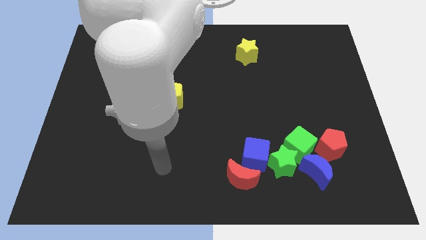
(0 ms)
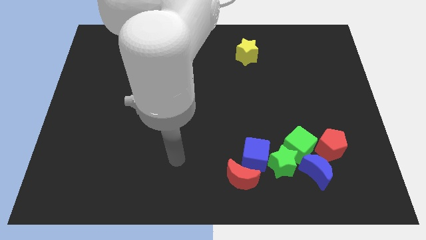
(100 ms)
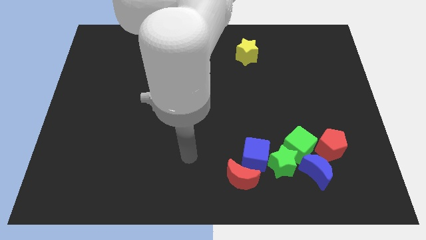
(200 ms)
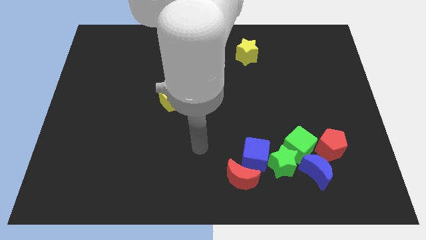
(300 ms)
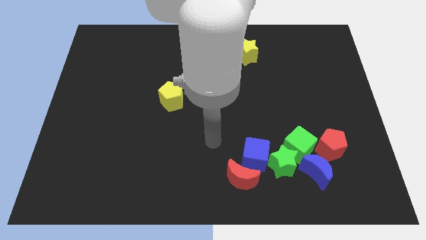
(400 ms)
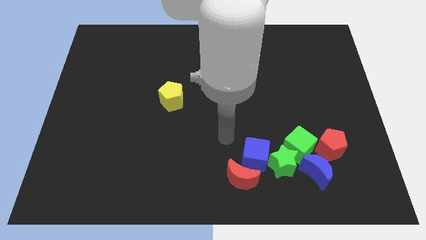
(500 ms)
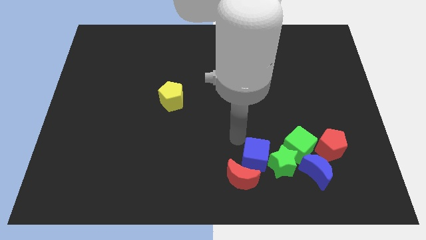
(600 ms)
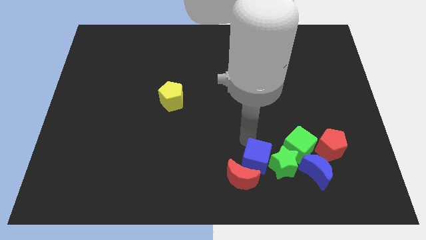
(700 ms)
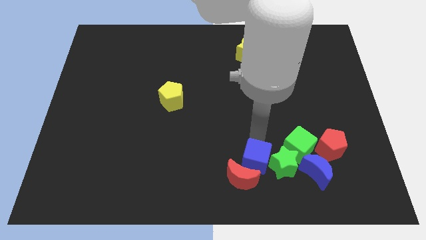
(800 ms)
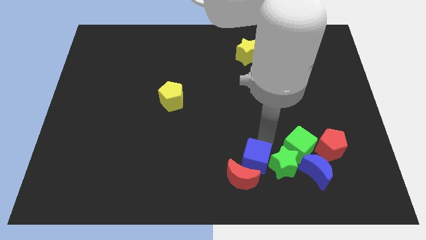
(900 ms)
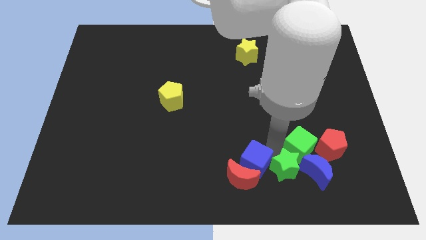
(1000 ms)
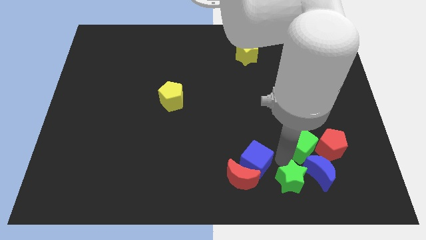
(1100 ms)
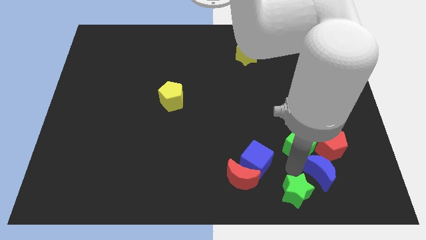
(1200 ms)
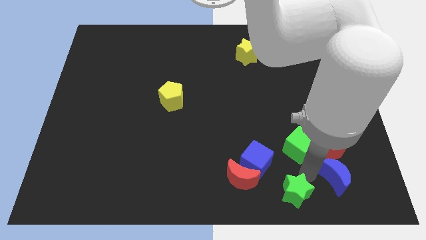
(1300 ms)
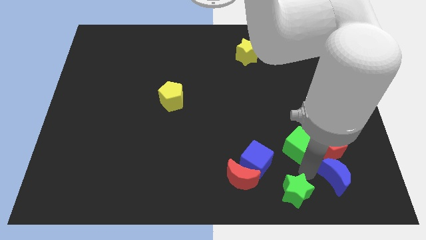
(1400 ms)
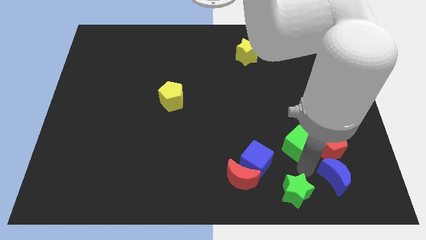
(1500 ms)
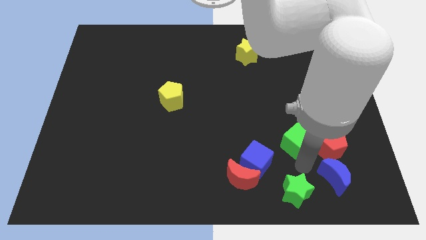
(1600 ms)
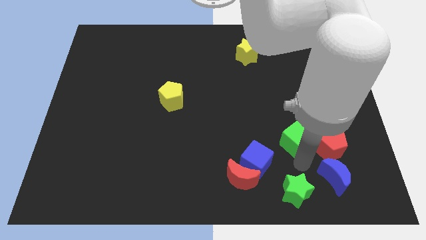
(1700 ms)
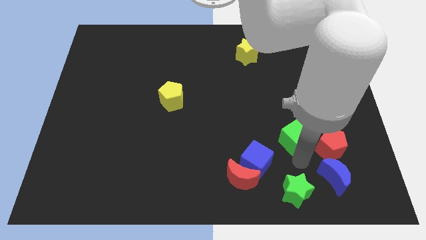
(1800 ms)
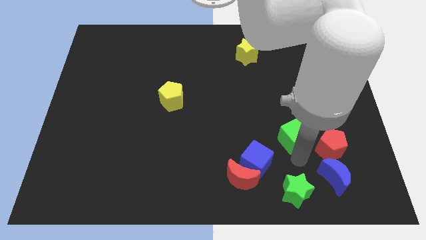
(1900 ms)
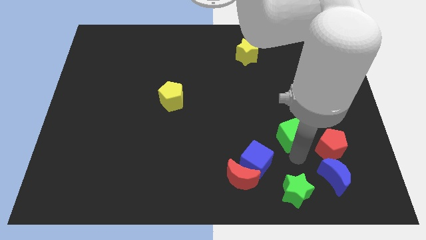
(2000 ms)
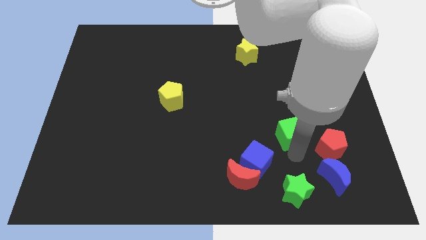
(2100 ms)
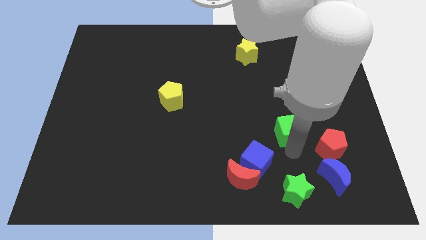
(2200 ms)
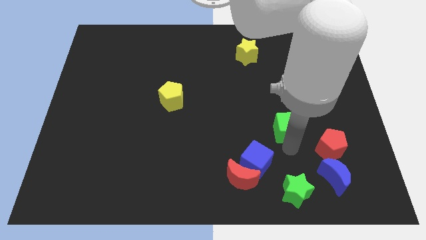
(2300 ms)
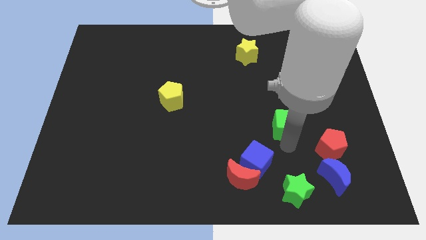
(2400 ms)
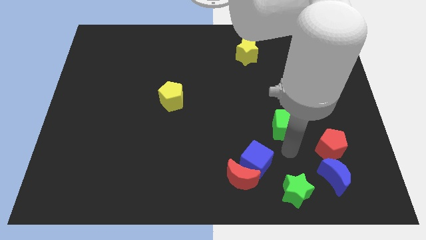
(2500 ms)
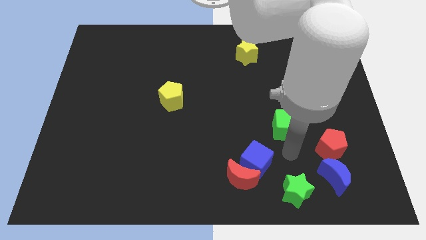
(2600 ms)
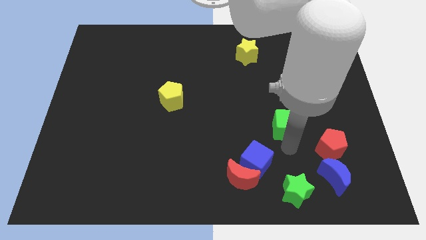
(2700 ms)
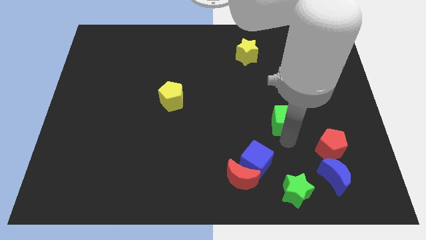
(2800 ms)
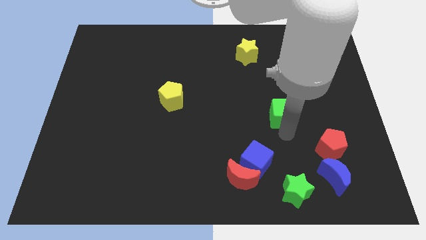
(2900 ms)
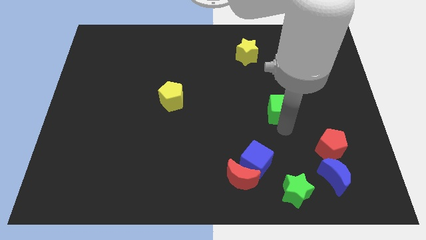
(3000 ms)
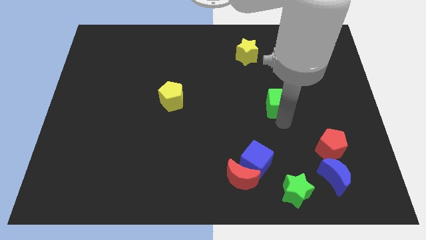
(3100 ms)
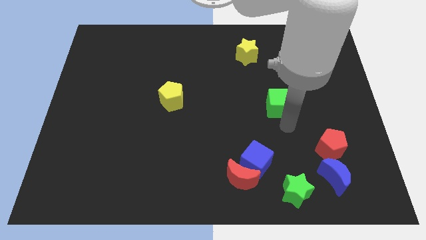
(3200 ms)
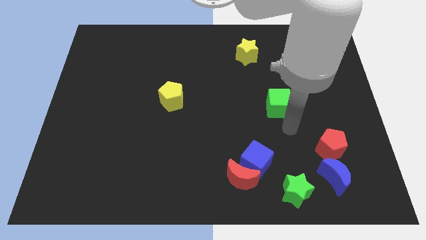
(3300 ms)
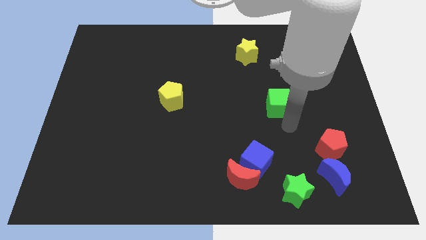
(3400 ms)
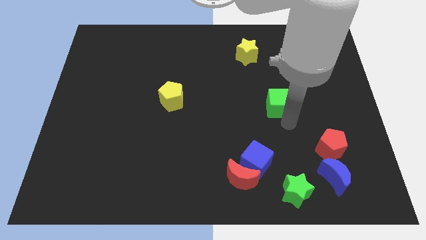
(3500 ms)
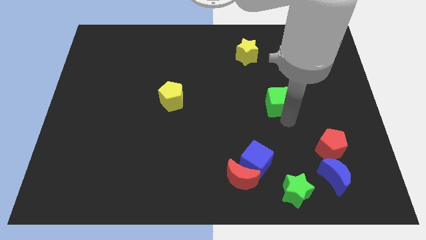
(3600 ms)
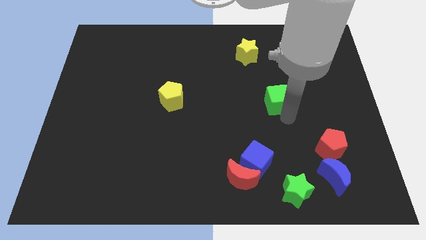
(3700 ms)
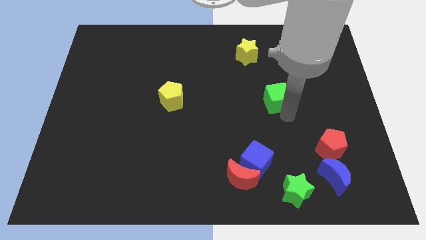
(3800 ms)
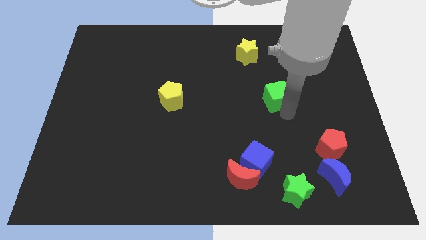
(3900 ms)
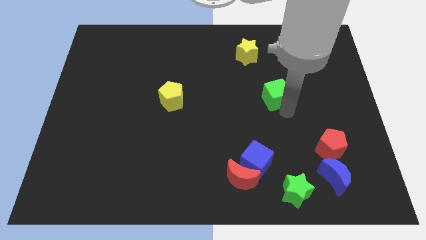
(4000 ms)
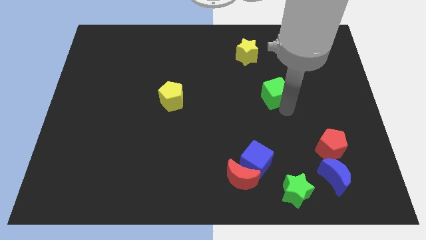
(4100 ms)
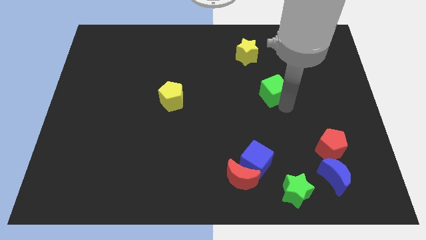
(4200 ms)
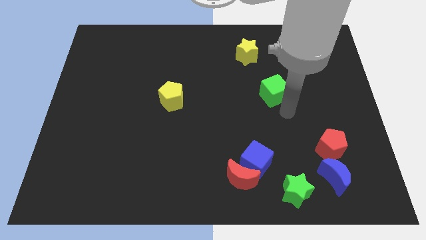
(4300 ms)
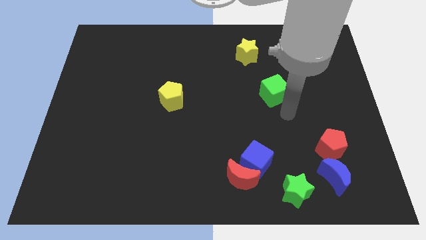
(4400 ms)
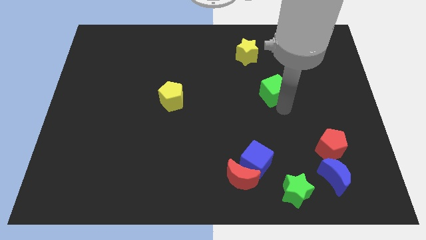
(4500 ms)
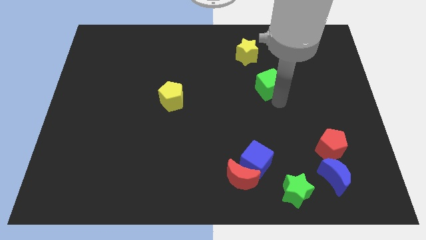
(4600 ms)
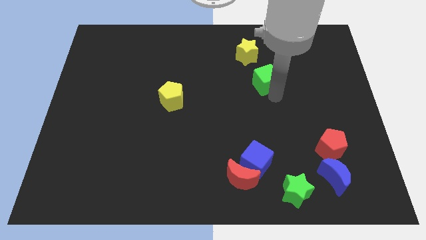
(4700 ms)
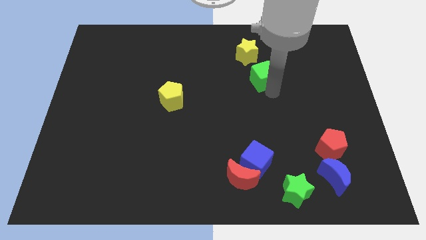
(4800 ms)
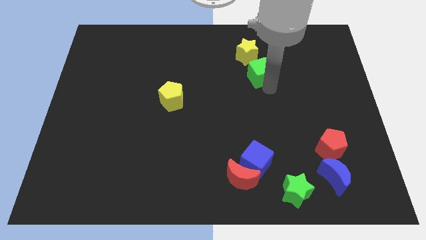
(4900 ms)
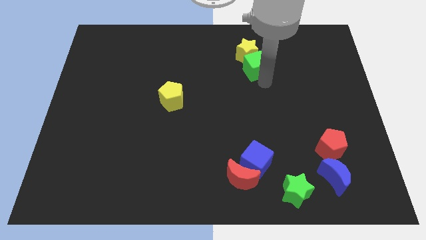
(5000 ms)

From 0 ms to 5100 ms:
move the green cube towards the yellow star

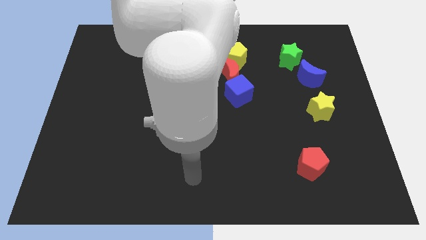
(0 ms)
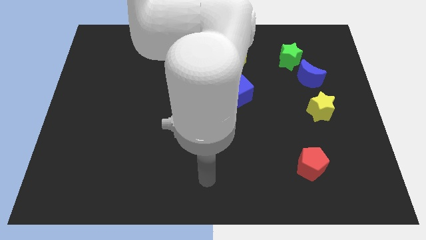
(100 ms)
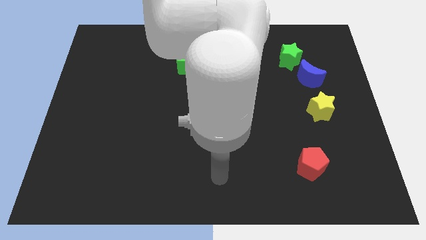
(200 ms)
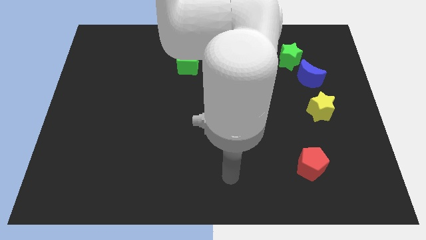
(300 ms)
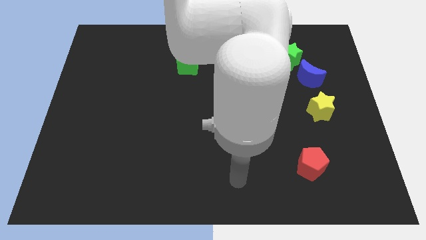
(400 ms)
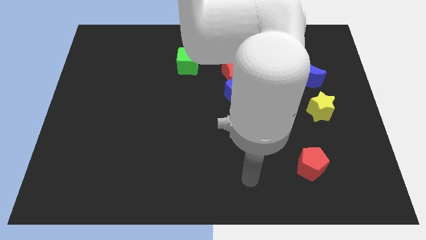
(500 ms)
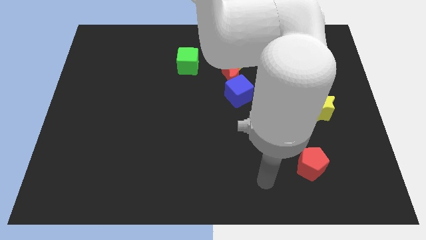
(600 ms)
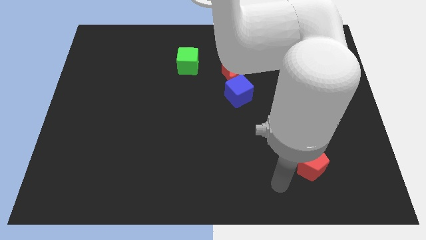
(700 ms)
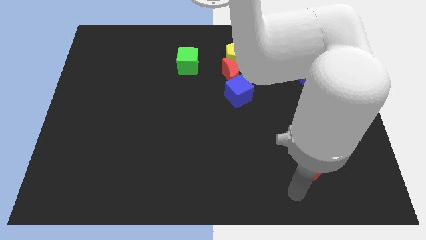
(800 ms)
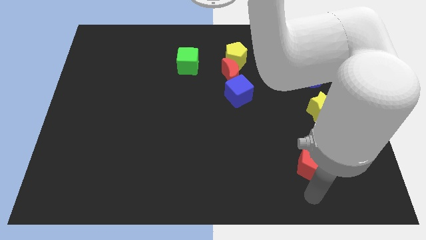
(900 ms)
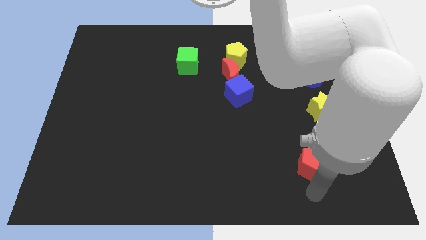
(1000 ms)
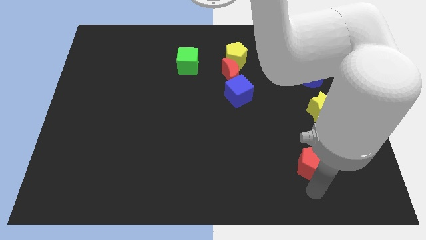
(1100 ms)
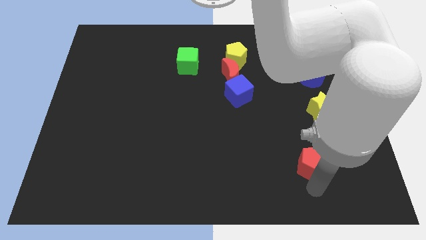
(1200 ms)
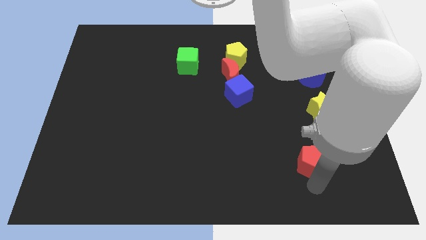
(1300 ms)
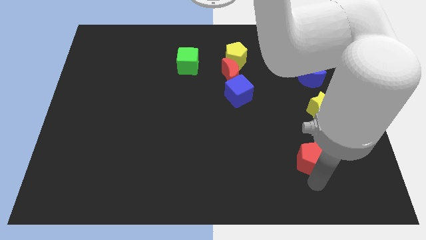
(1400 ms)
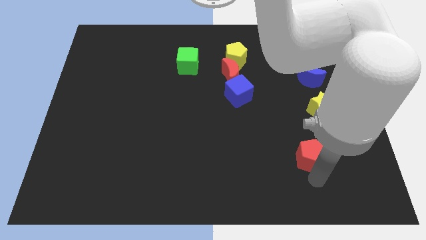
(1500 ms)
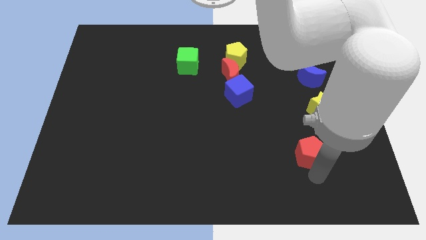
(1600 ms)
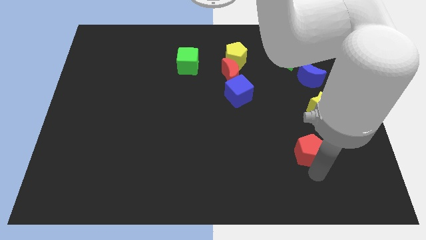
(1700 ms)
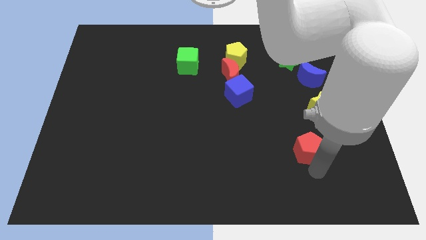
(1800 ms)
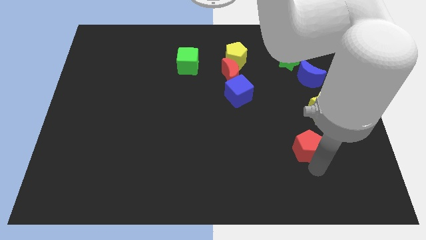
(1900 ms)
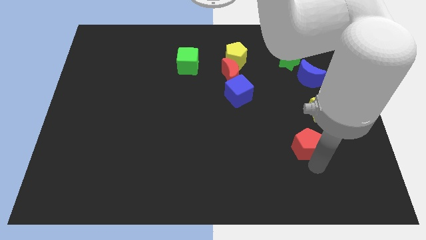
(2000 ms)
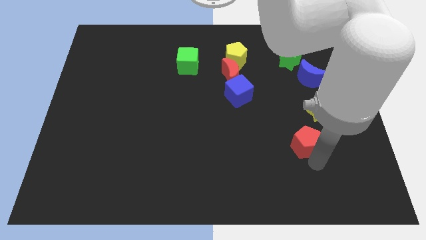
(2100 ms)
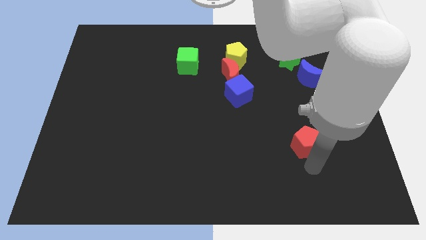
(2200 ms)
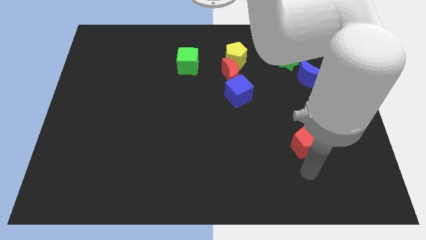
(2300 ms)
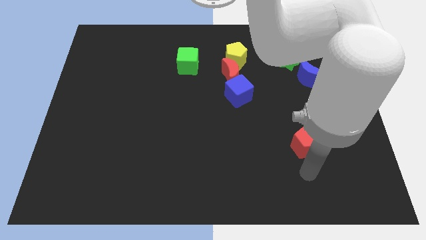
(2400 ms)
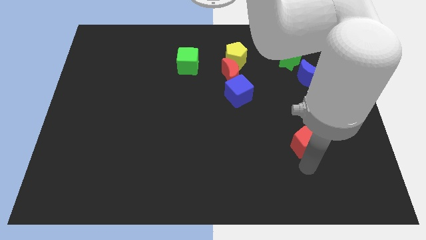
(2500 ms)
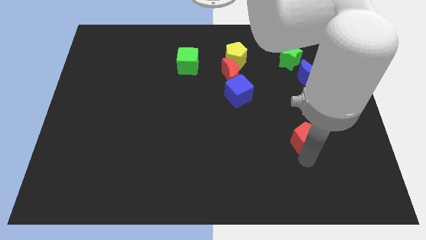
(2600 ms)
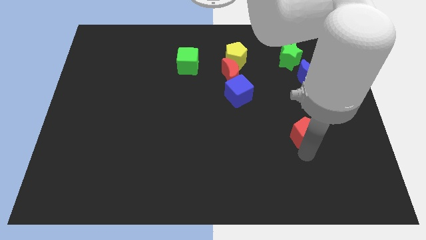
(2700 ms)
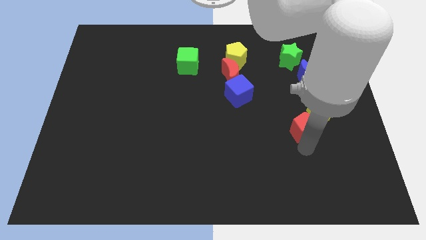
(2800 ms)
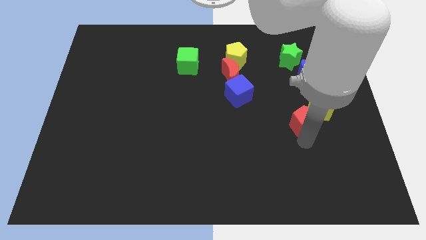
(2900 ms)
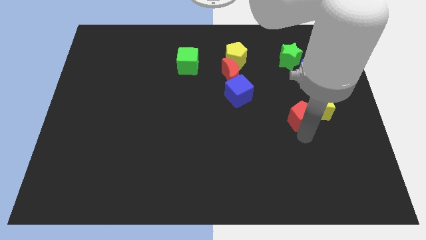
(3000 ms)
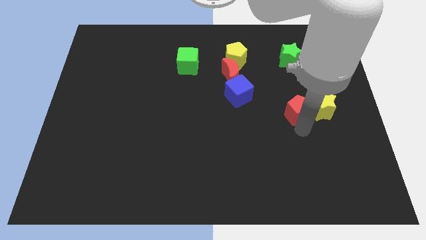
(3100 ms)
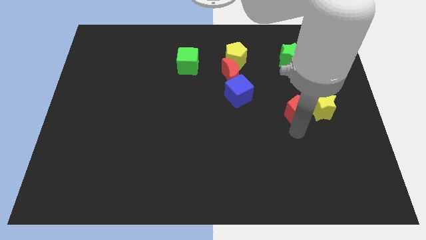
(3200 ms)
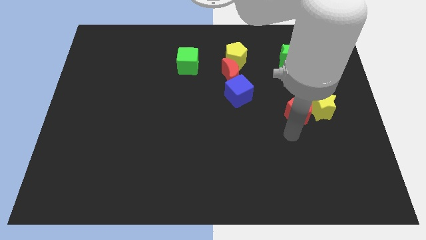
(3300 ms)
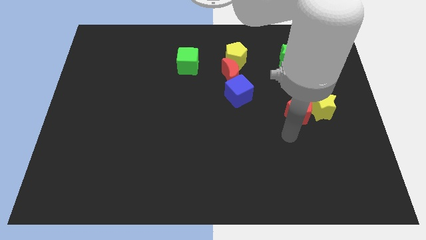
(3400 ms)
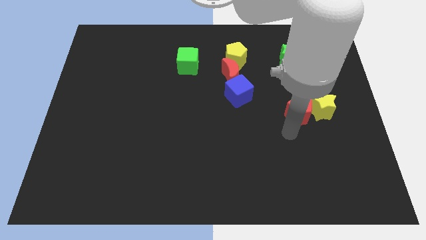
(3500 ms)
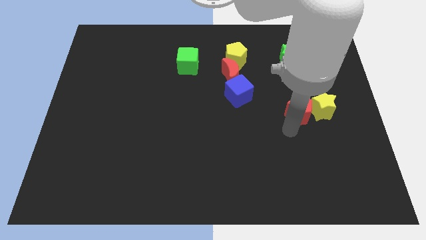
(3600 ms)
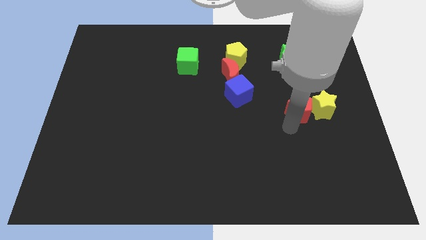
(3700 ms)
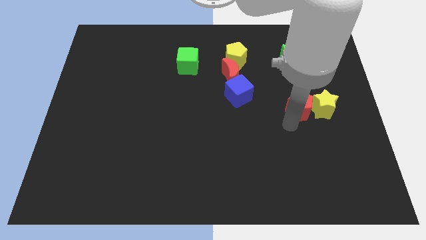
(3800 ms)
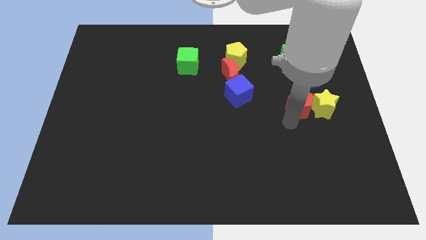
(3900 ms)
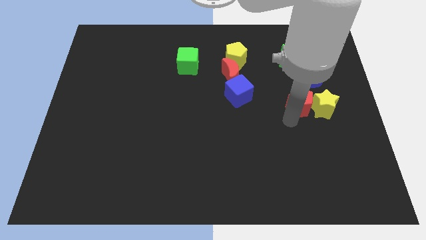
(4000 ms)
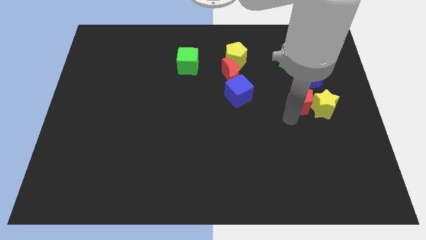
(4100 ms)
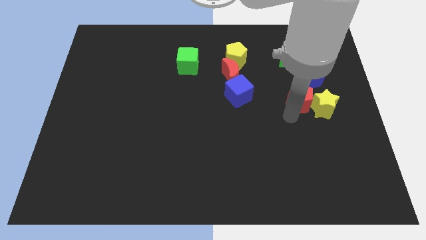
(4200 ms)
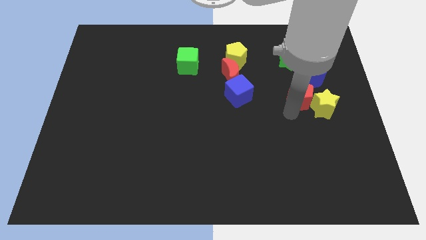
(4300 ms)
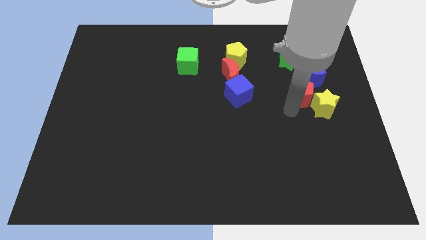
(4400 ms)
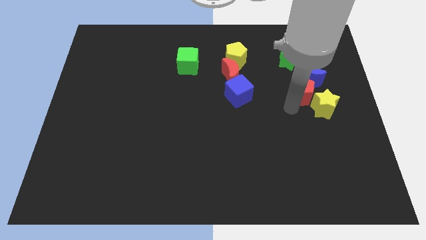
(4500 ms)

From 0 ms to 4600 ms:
move the red pentagon close to the blue moon
